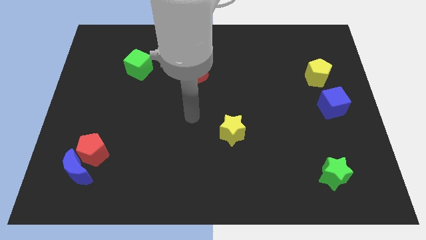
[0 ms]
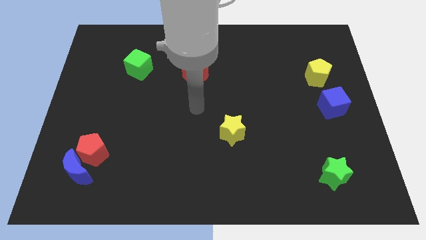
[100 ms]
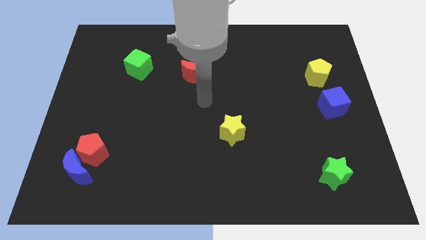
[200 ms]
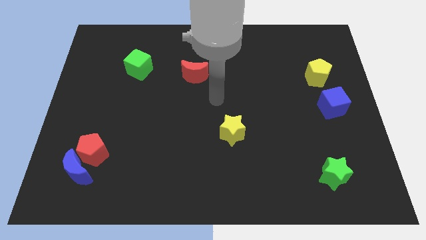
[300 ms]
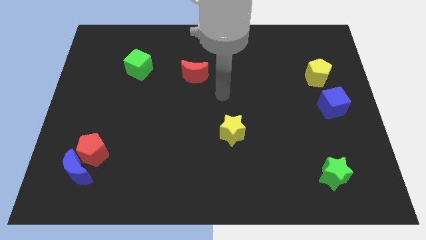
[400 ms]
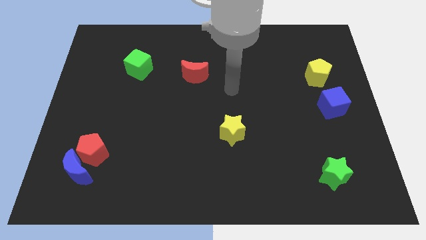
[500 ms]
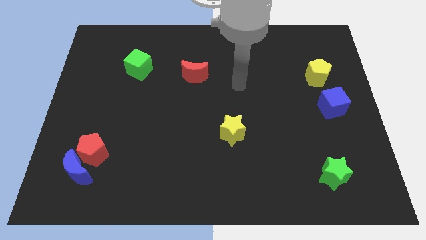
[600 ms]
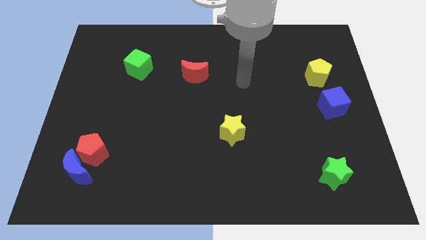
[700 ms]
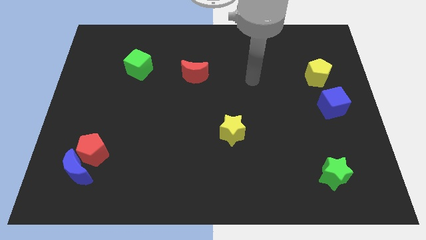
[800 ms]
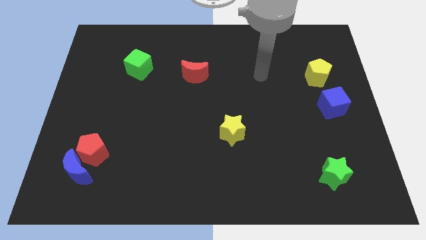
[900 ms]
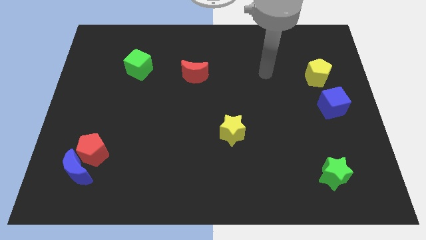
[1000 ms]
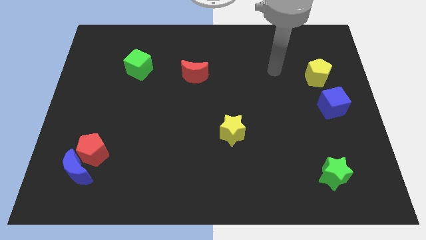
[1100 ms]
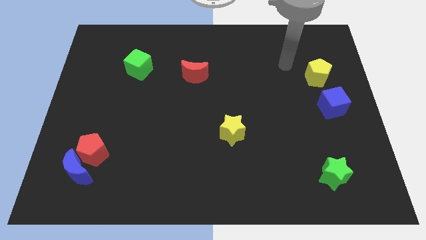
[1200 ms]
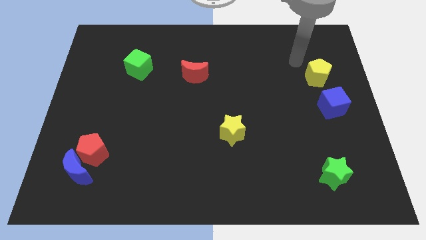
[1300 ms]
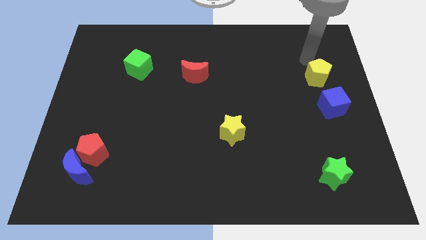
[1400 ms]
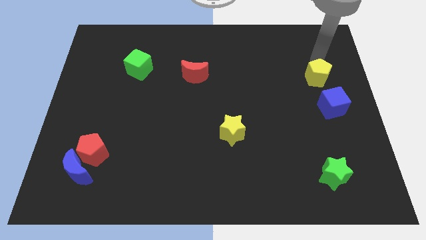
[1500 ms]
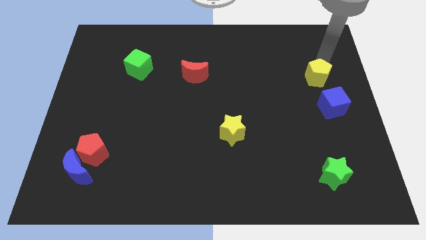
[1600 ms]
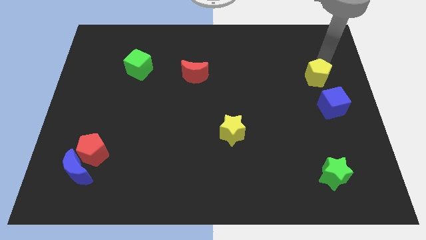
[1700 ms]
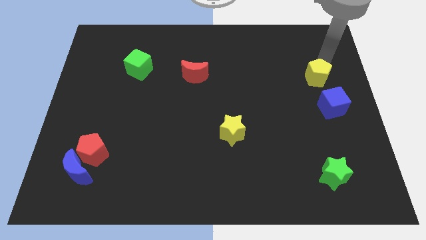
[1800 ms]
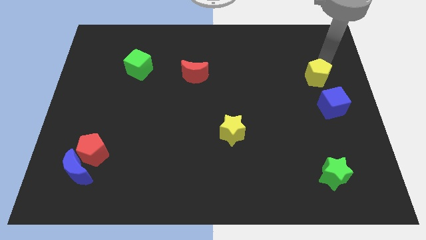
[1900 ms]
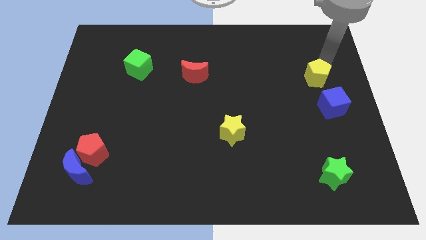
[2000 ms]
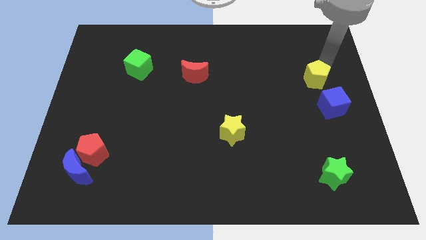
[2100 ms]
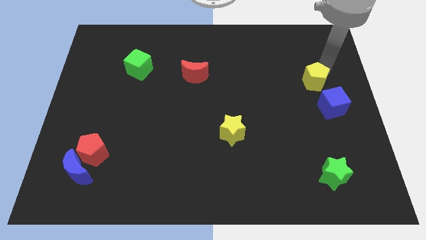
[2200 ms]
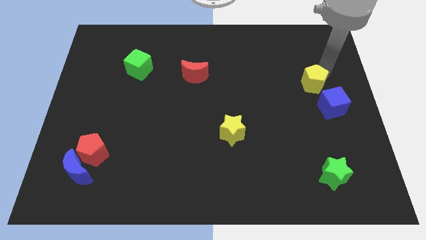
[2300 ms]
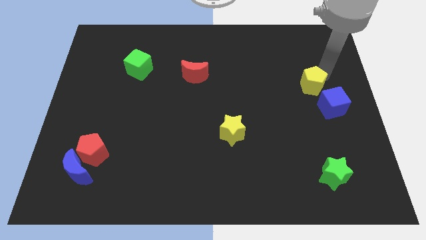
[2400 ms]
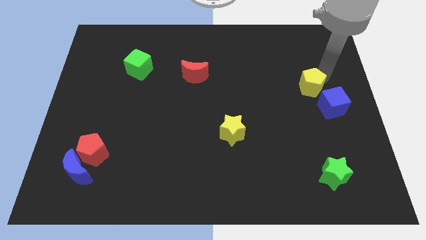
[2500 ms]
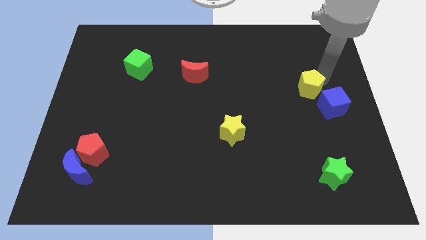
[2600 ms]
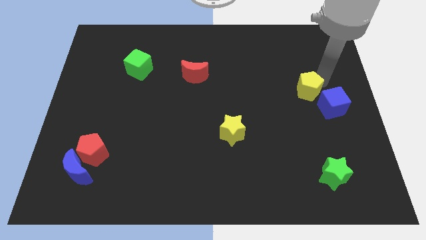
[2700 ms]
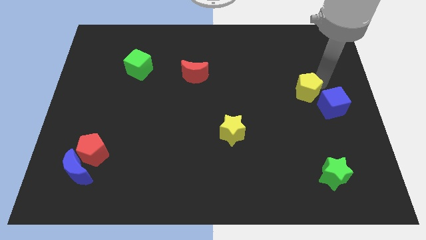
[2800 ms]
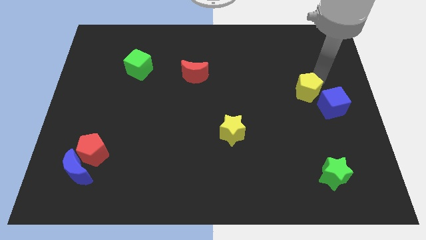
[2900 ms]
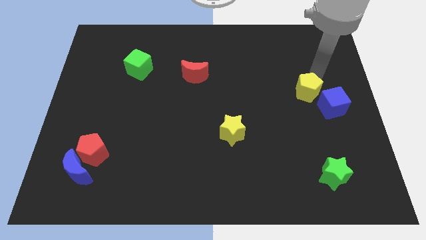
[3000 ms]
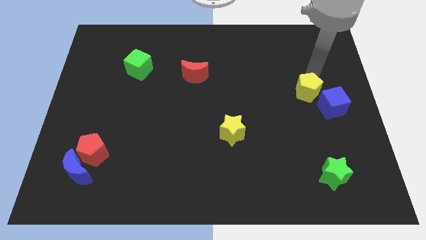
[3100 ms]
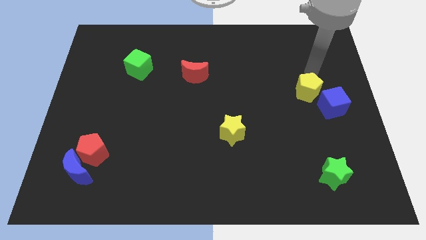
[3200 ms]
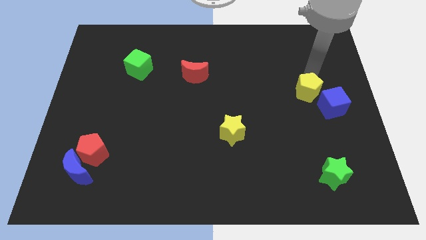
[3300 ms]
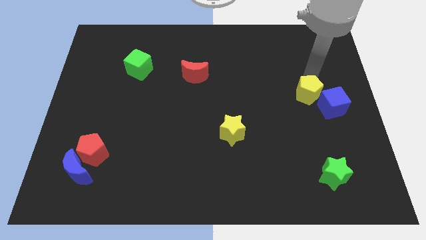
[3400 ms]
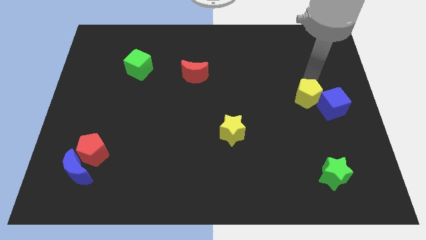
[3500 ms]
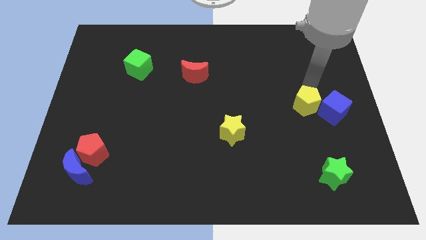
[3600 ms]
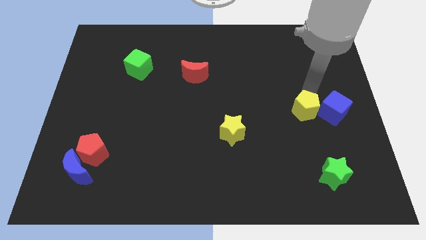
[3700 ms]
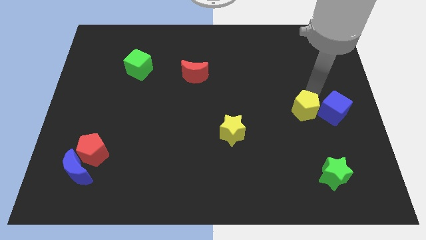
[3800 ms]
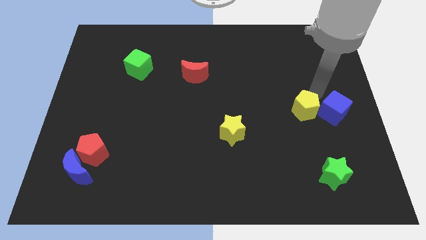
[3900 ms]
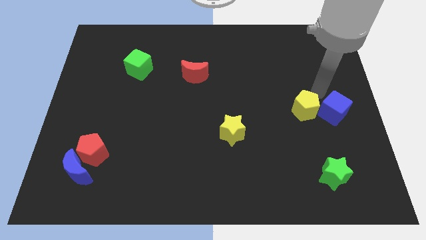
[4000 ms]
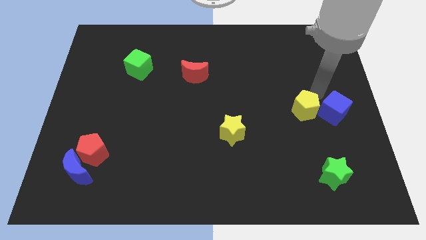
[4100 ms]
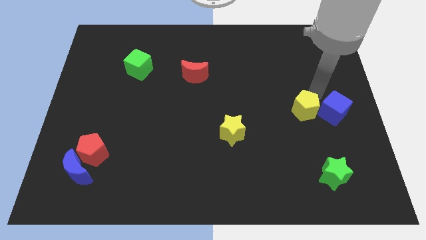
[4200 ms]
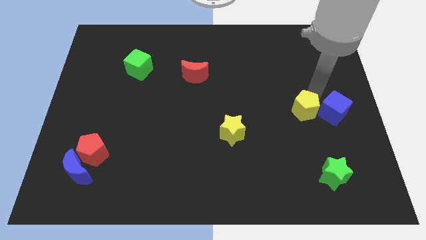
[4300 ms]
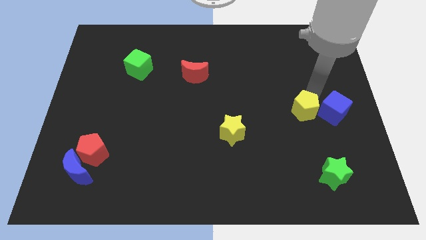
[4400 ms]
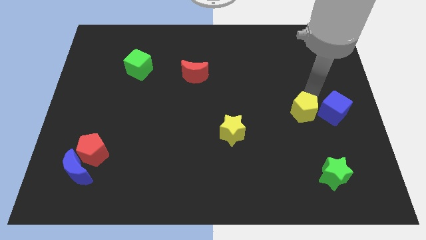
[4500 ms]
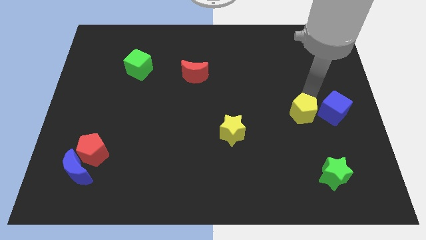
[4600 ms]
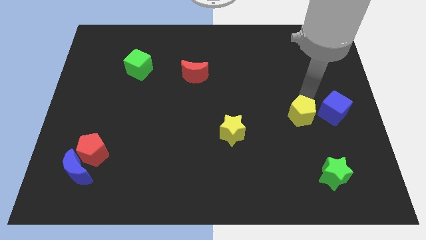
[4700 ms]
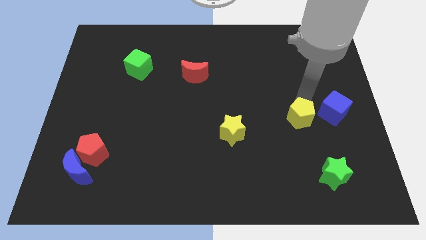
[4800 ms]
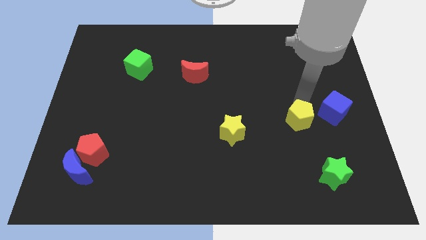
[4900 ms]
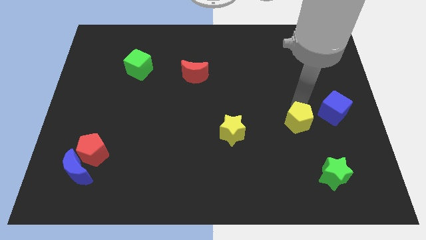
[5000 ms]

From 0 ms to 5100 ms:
push the yellow pentagon to the right side of the yellow star

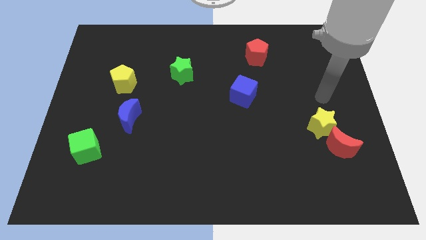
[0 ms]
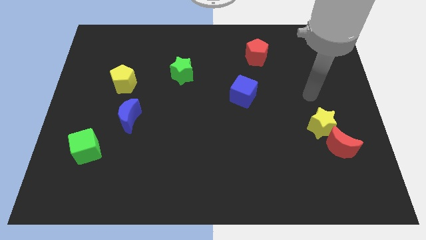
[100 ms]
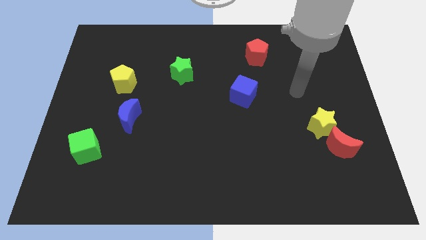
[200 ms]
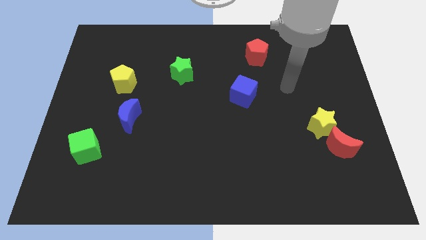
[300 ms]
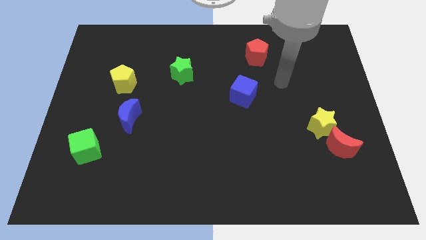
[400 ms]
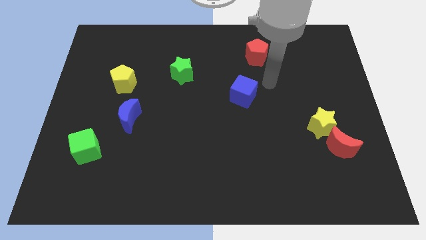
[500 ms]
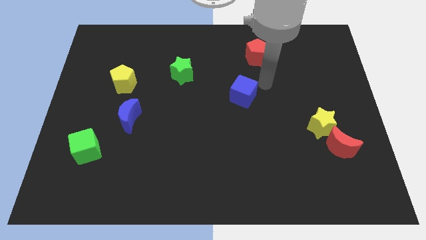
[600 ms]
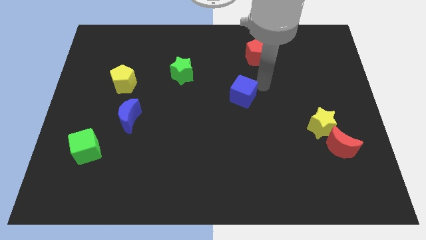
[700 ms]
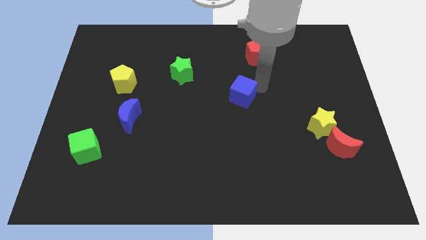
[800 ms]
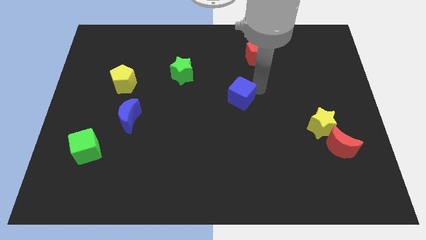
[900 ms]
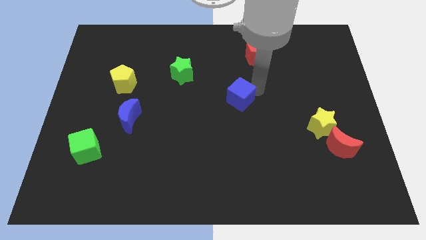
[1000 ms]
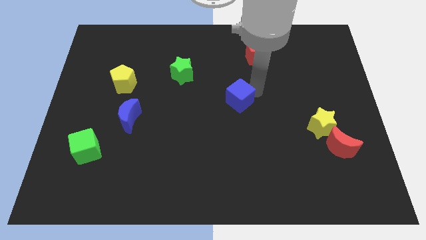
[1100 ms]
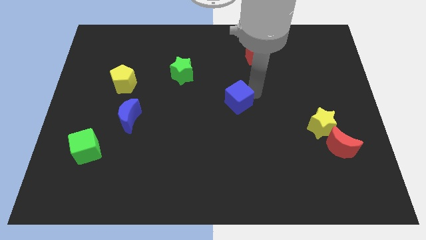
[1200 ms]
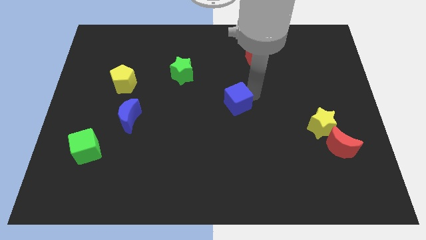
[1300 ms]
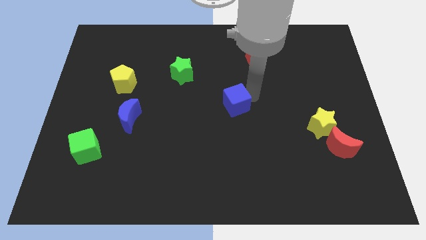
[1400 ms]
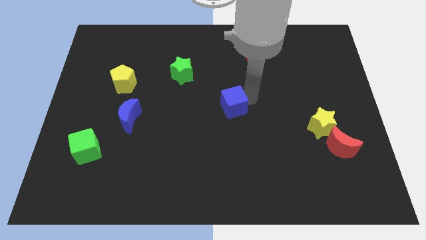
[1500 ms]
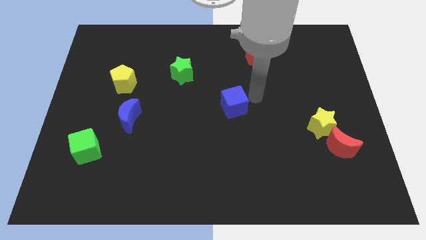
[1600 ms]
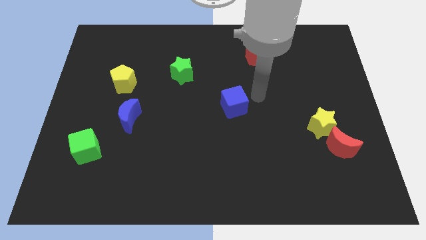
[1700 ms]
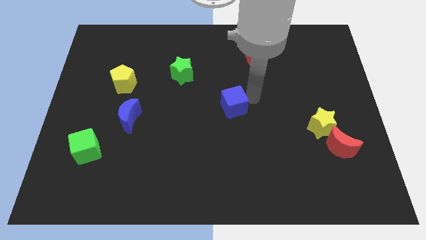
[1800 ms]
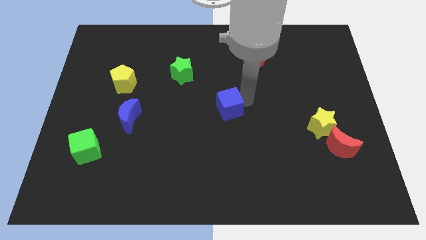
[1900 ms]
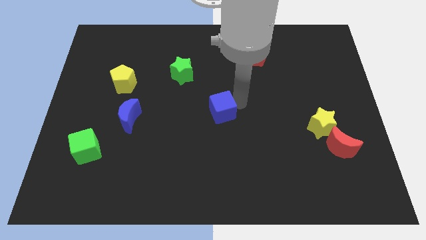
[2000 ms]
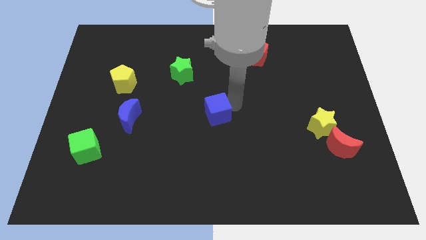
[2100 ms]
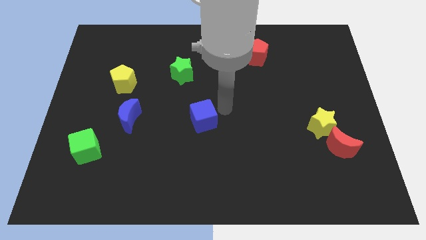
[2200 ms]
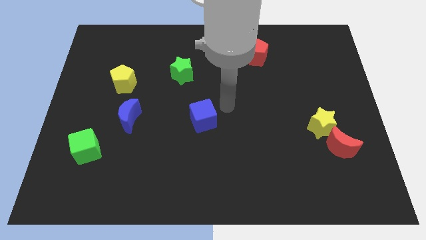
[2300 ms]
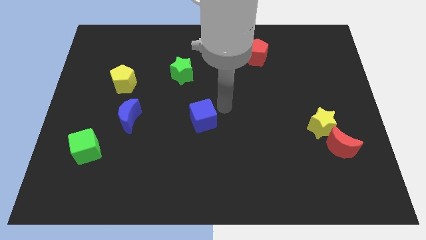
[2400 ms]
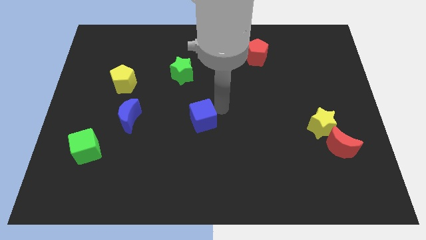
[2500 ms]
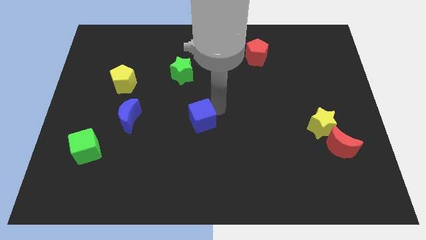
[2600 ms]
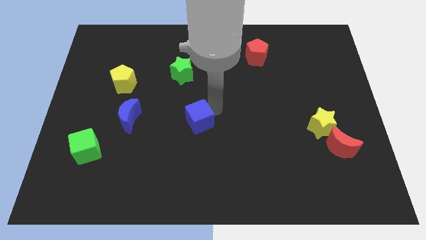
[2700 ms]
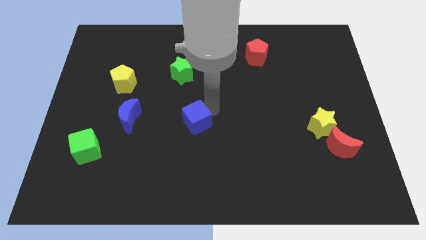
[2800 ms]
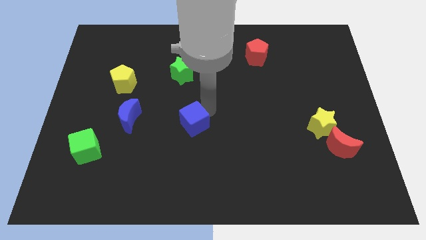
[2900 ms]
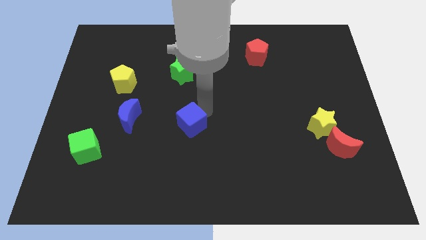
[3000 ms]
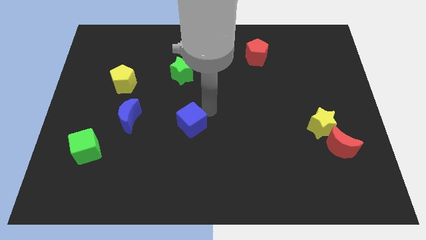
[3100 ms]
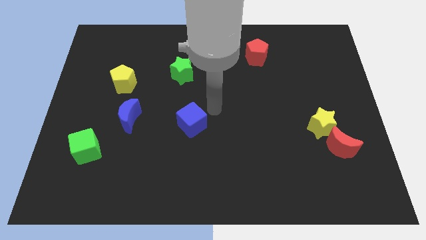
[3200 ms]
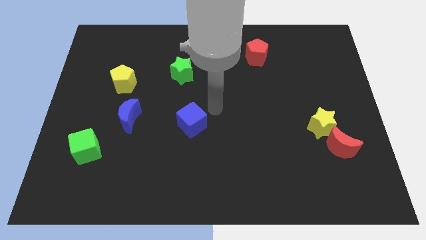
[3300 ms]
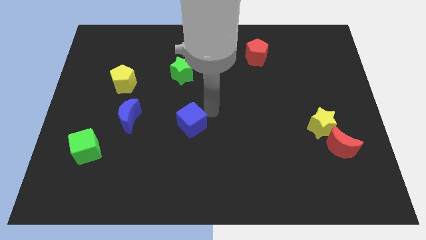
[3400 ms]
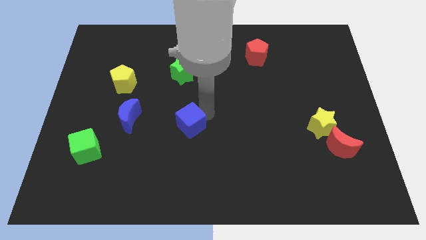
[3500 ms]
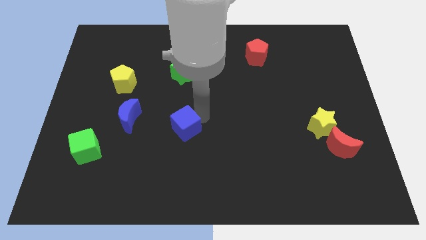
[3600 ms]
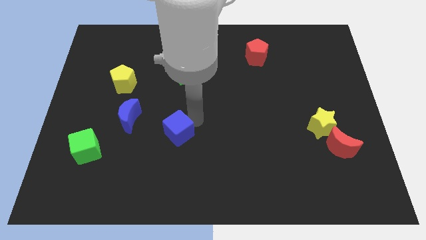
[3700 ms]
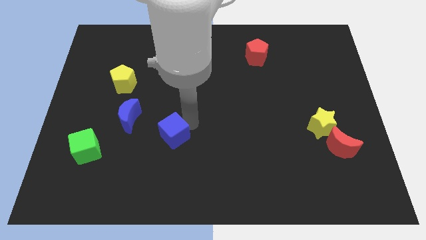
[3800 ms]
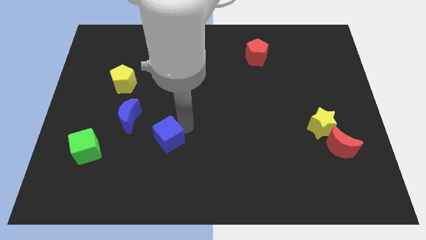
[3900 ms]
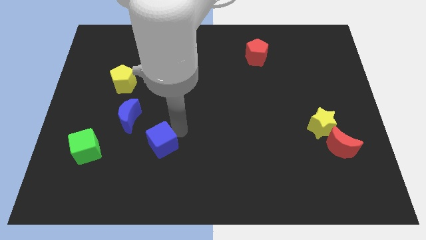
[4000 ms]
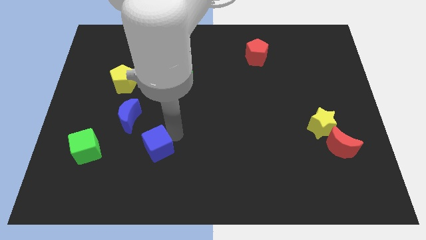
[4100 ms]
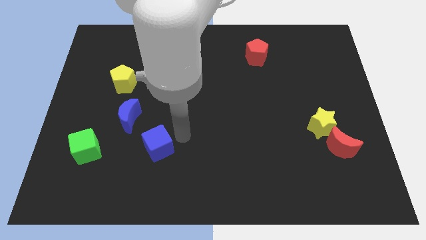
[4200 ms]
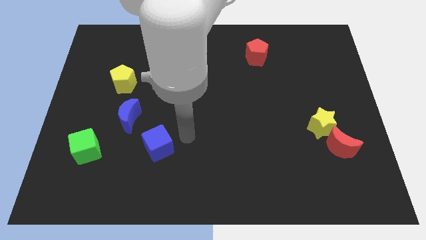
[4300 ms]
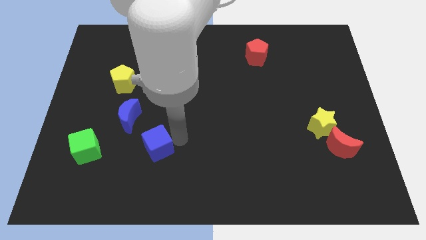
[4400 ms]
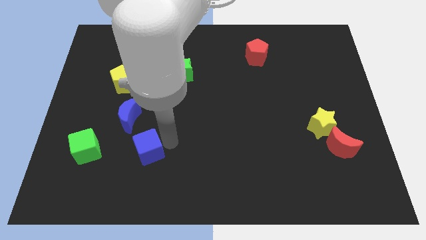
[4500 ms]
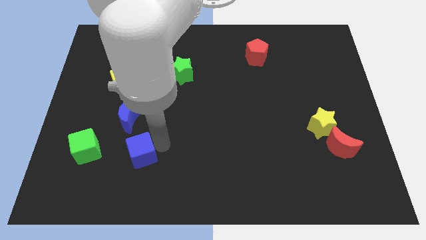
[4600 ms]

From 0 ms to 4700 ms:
put the blue cube to the bottom side of the blue moon
